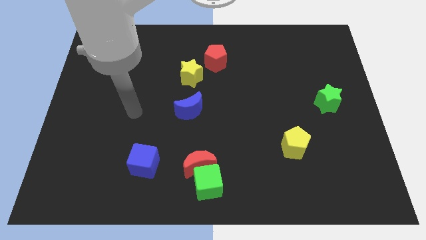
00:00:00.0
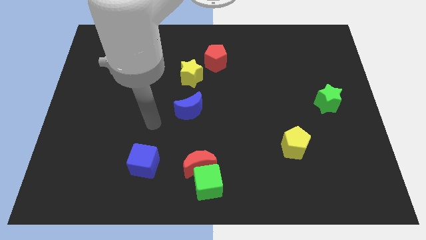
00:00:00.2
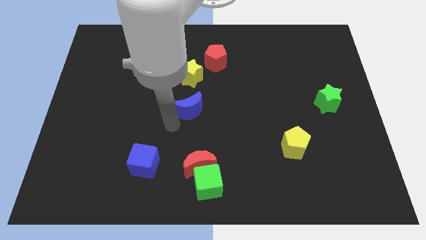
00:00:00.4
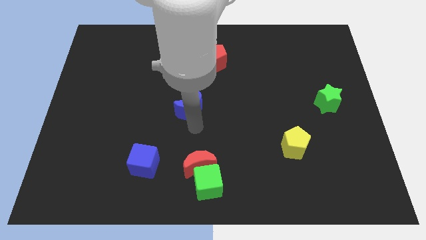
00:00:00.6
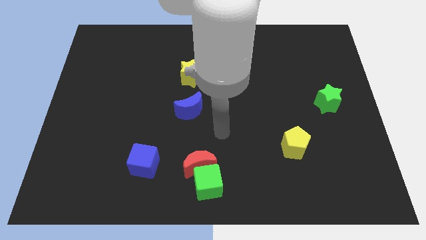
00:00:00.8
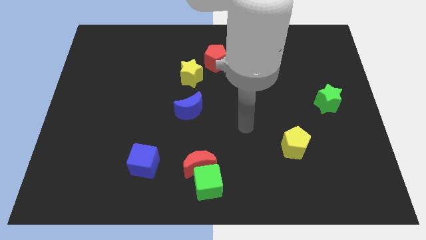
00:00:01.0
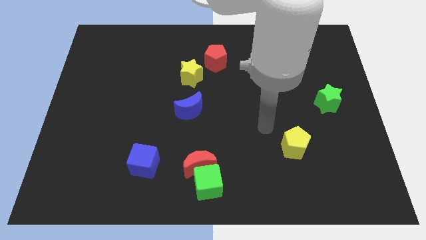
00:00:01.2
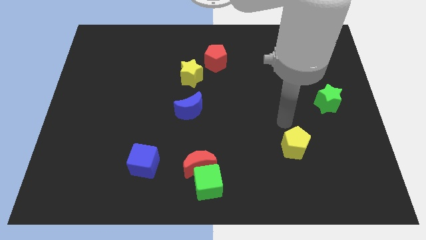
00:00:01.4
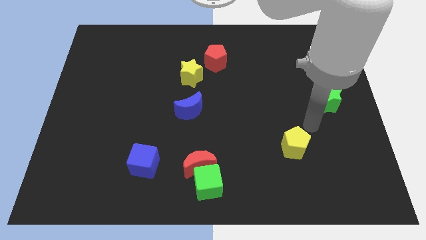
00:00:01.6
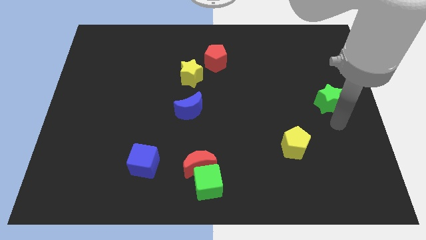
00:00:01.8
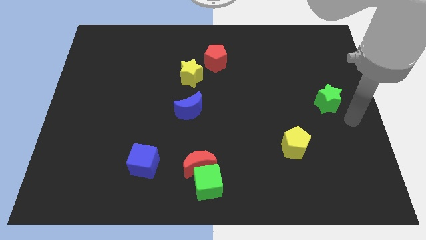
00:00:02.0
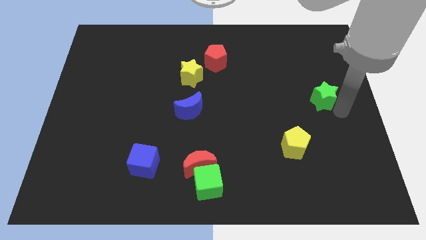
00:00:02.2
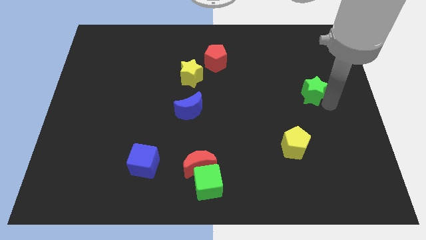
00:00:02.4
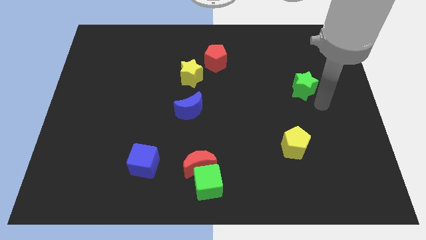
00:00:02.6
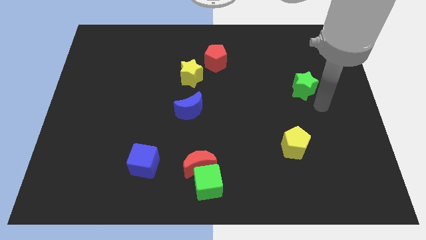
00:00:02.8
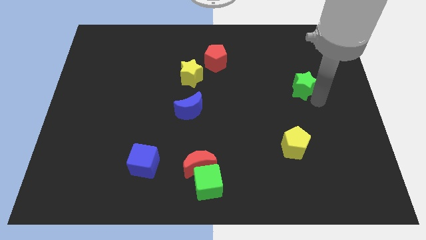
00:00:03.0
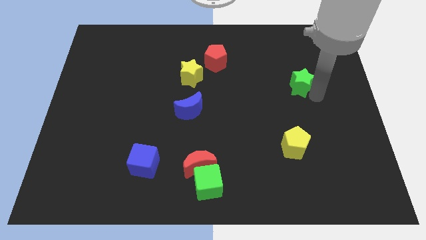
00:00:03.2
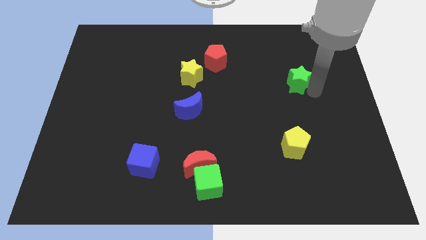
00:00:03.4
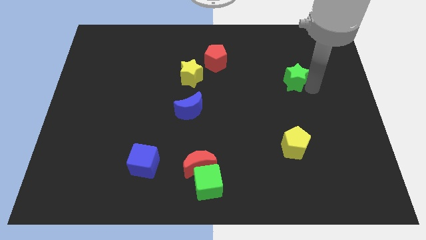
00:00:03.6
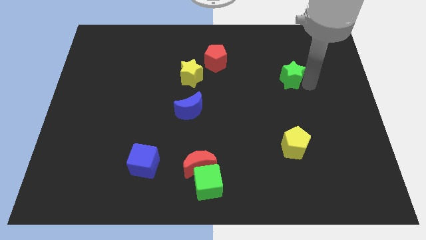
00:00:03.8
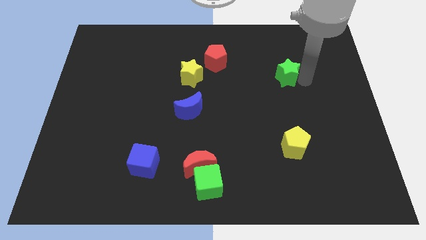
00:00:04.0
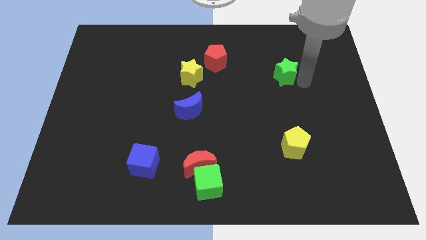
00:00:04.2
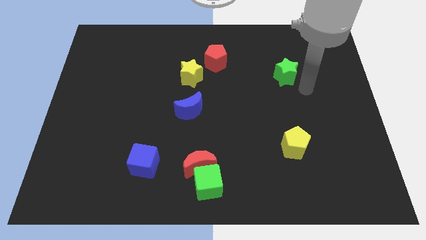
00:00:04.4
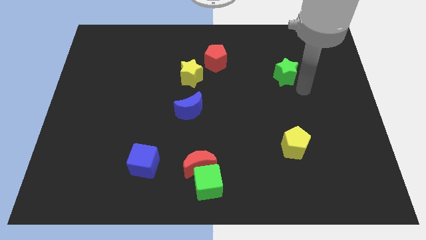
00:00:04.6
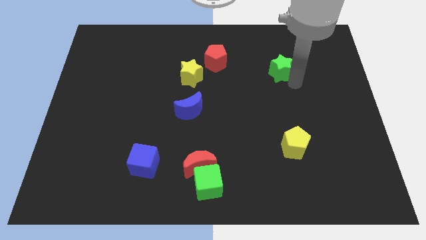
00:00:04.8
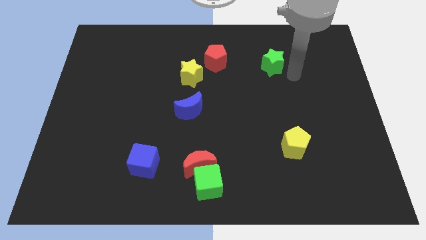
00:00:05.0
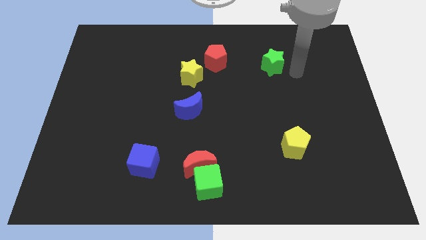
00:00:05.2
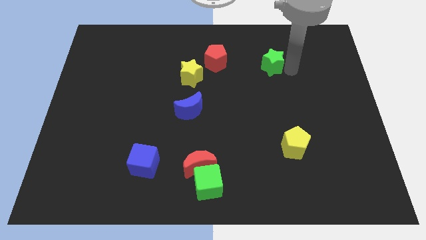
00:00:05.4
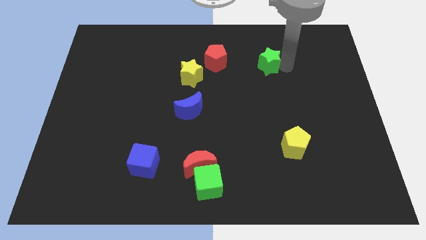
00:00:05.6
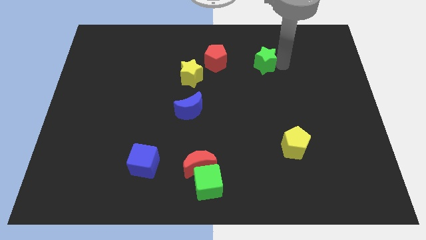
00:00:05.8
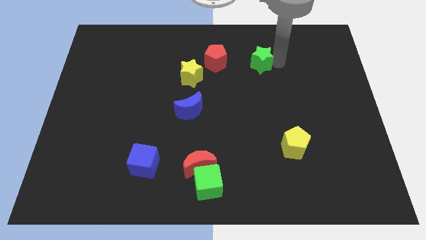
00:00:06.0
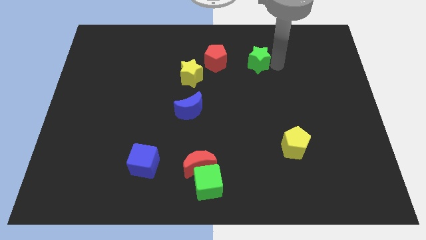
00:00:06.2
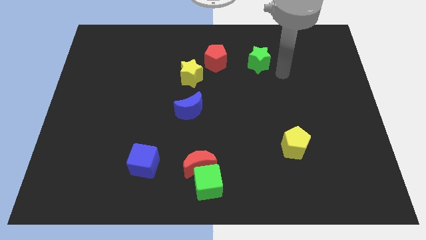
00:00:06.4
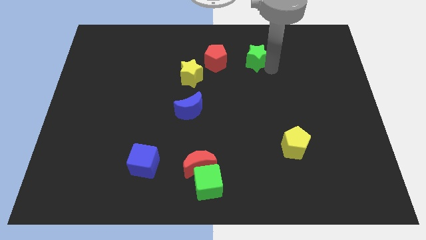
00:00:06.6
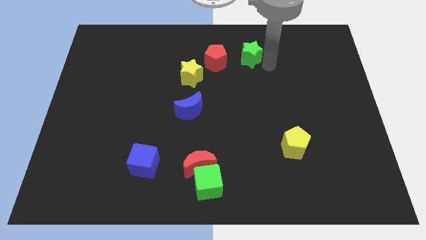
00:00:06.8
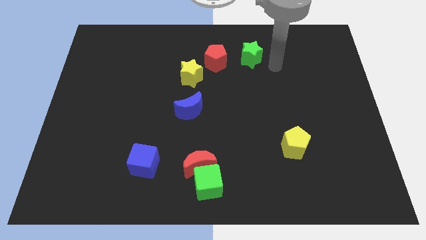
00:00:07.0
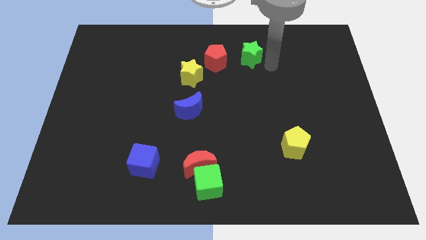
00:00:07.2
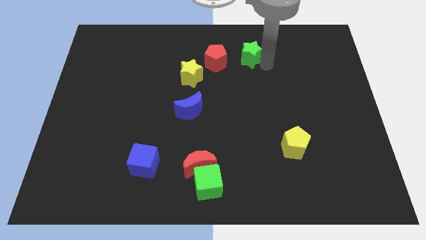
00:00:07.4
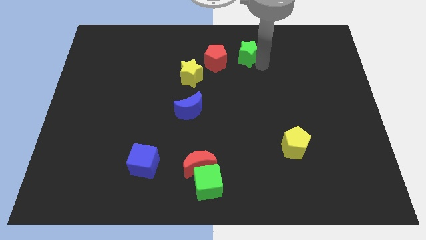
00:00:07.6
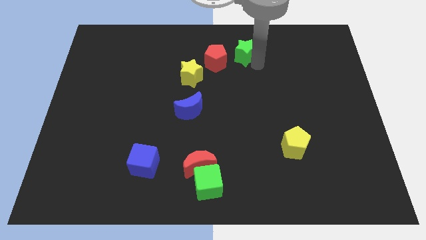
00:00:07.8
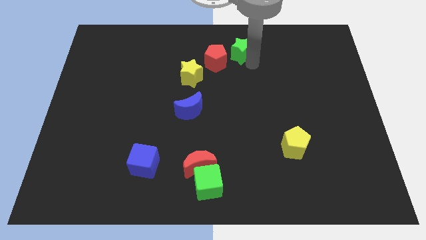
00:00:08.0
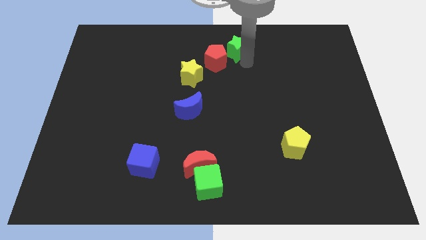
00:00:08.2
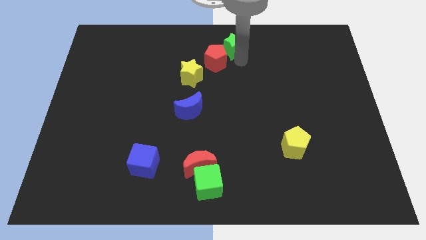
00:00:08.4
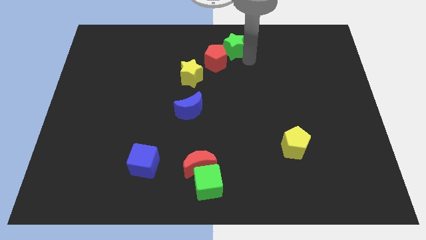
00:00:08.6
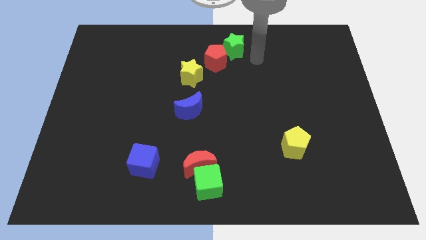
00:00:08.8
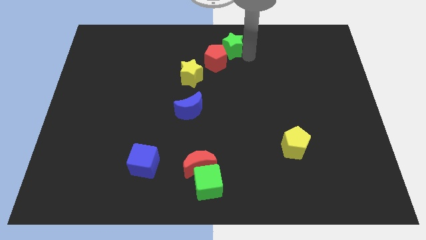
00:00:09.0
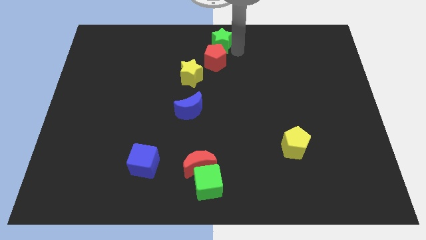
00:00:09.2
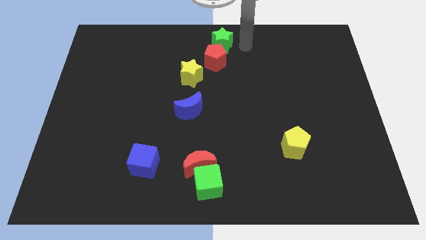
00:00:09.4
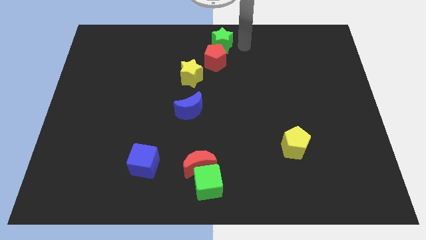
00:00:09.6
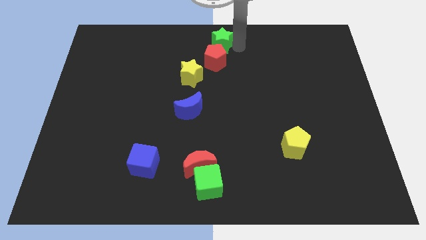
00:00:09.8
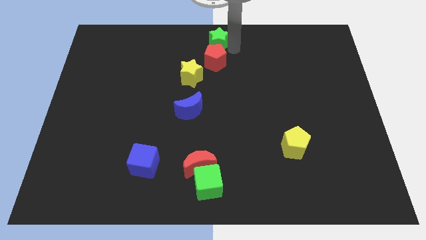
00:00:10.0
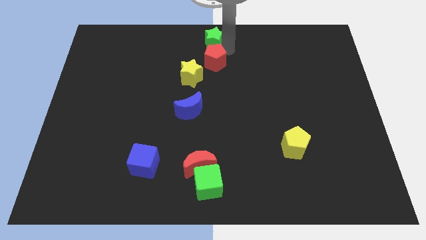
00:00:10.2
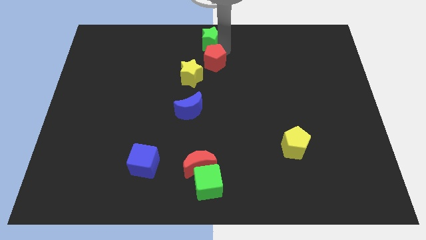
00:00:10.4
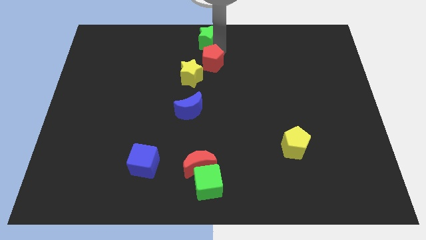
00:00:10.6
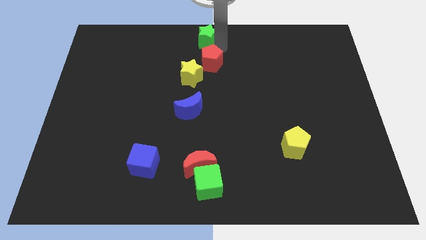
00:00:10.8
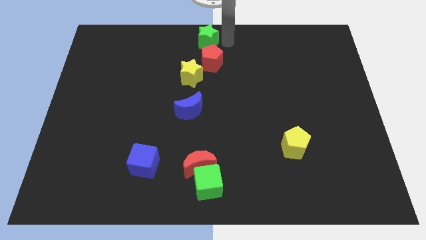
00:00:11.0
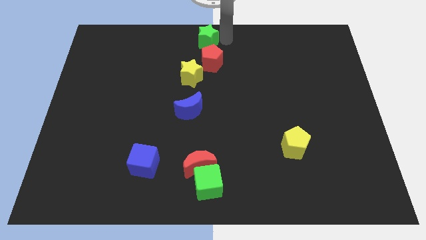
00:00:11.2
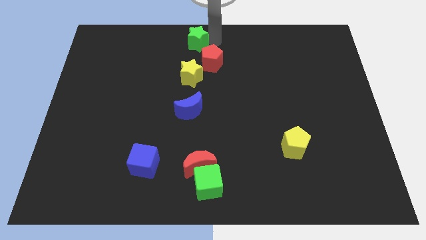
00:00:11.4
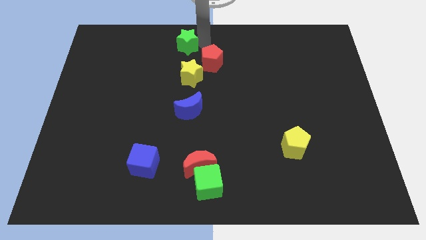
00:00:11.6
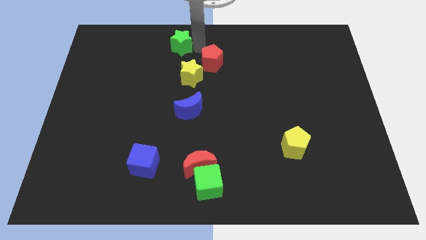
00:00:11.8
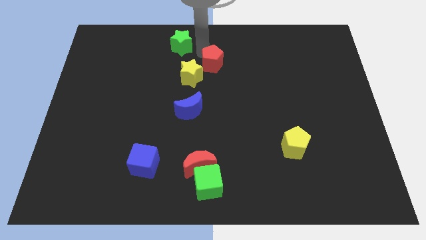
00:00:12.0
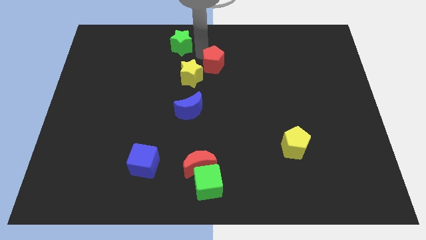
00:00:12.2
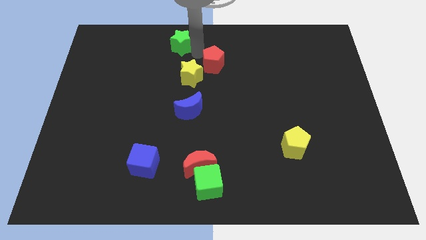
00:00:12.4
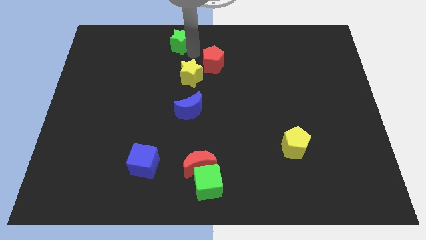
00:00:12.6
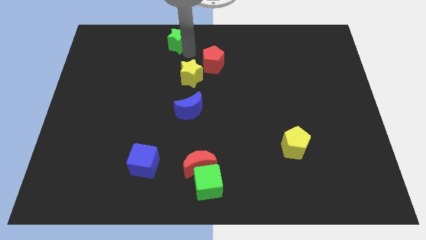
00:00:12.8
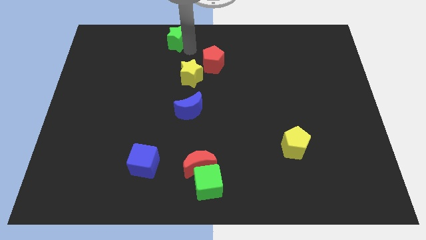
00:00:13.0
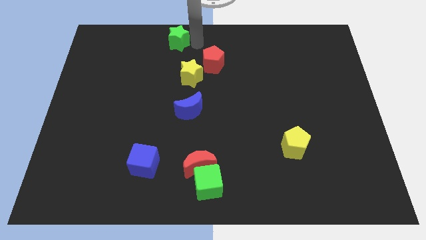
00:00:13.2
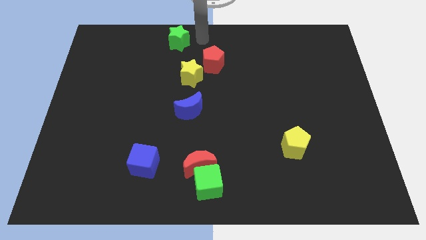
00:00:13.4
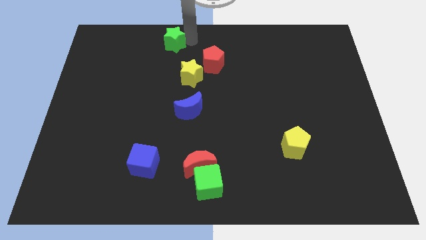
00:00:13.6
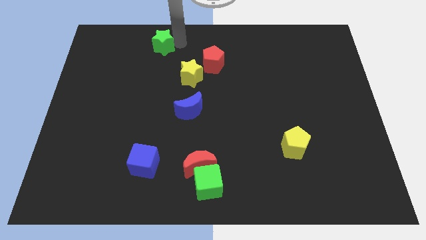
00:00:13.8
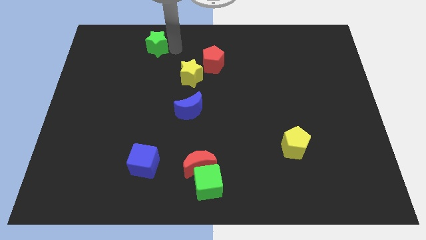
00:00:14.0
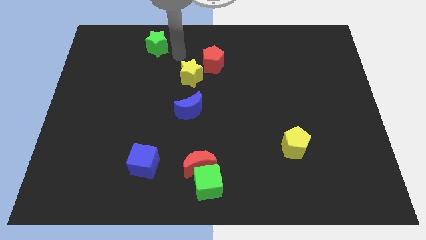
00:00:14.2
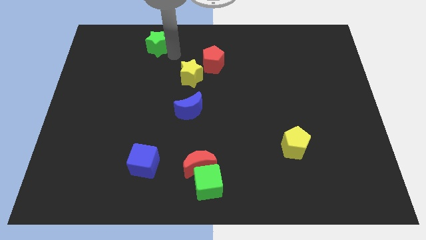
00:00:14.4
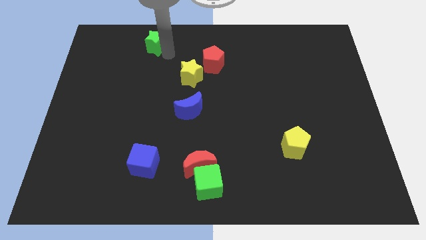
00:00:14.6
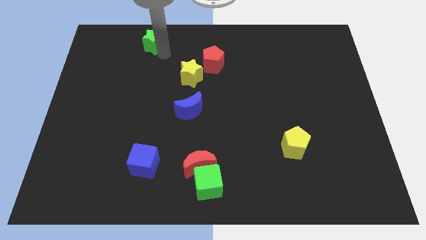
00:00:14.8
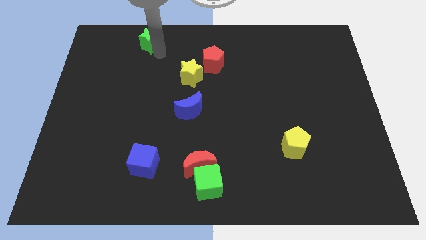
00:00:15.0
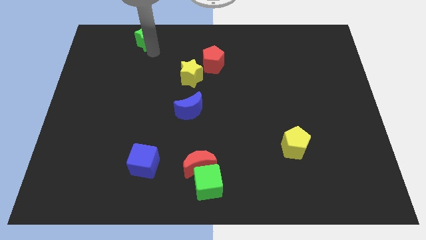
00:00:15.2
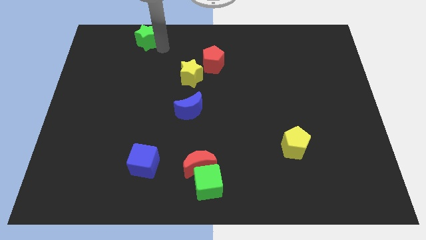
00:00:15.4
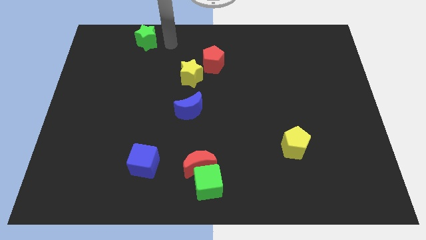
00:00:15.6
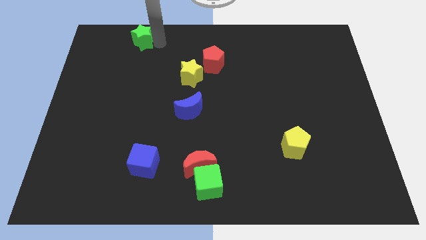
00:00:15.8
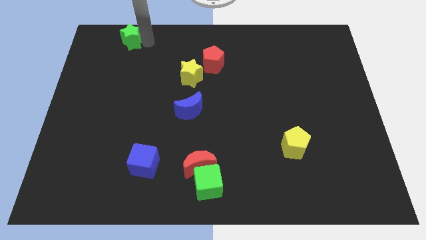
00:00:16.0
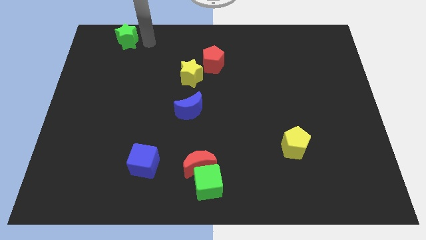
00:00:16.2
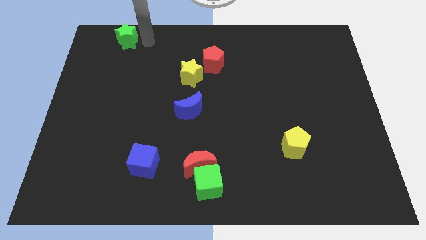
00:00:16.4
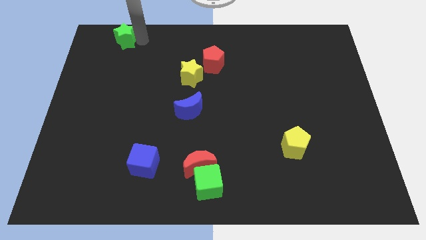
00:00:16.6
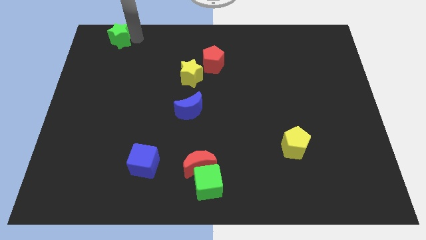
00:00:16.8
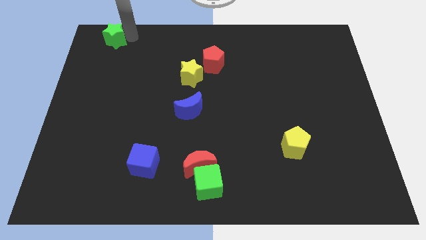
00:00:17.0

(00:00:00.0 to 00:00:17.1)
put the green star to the top left corner
